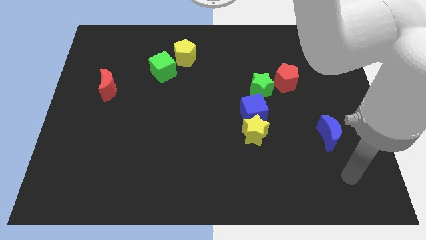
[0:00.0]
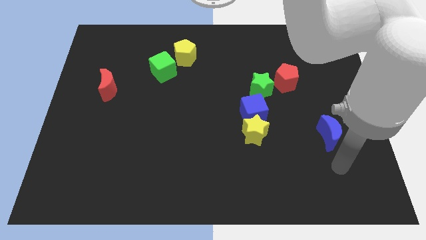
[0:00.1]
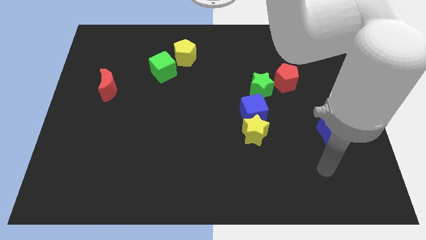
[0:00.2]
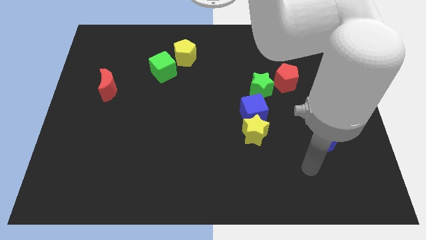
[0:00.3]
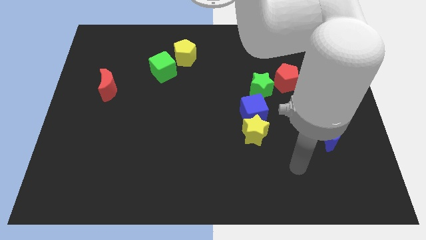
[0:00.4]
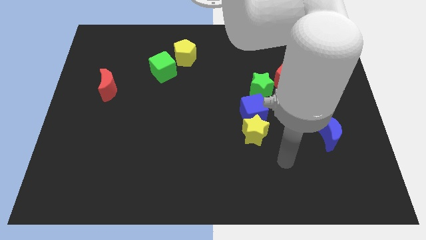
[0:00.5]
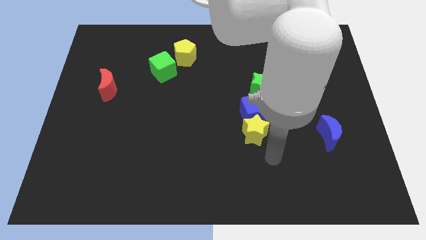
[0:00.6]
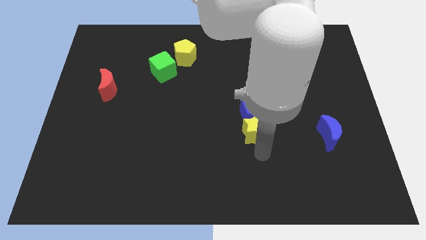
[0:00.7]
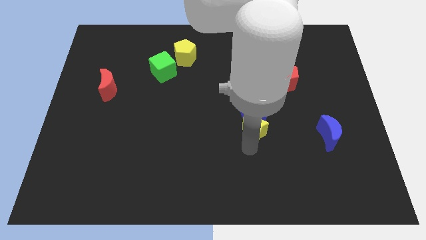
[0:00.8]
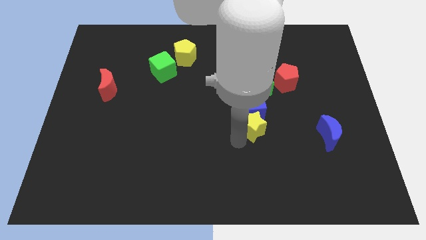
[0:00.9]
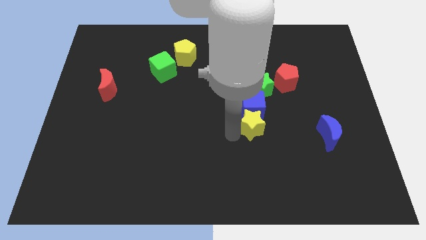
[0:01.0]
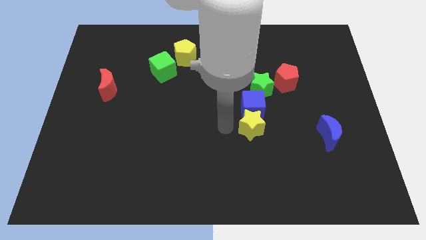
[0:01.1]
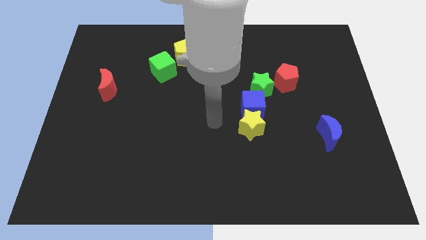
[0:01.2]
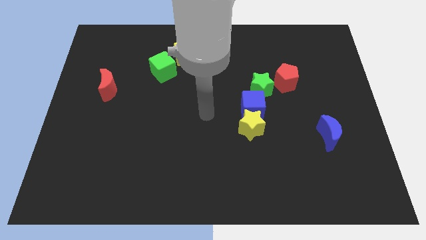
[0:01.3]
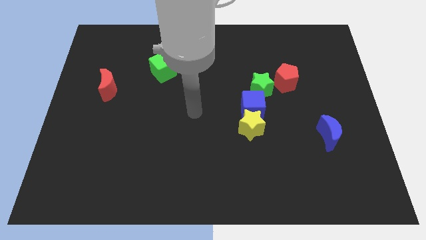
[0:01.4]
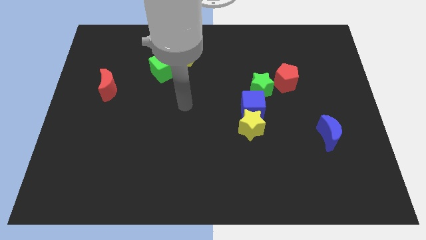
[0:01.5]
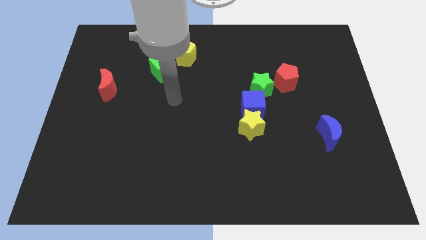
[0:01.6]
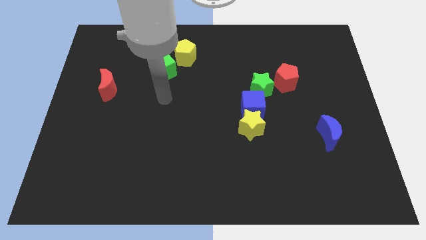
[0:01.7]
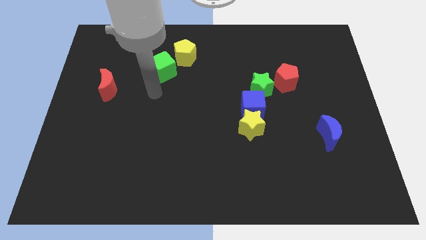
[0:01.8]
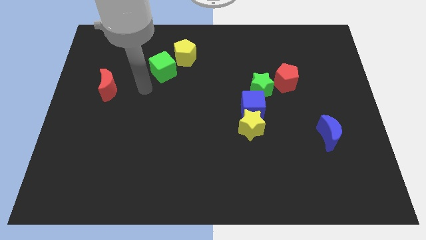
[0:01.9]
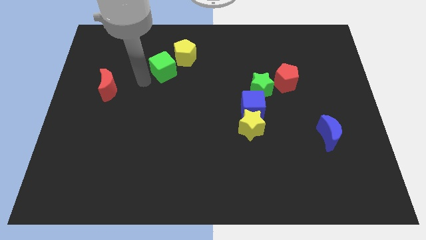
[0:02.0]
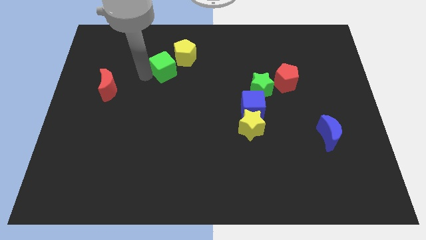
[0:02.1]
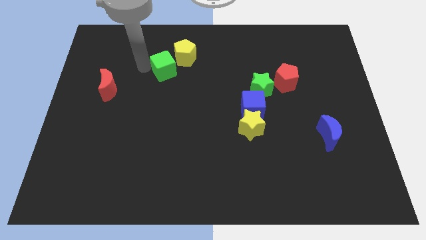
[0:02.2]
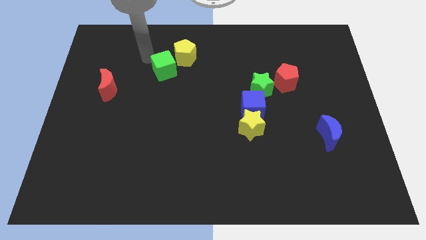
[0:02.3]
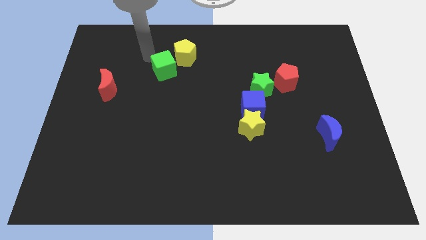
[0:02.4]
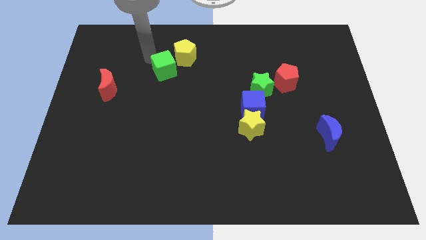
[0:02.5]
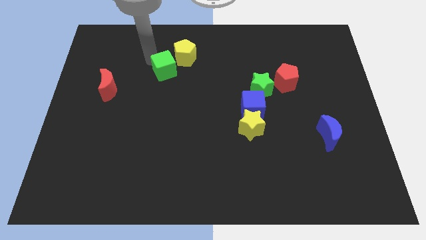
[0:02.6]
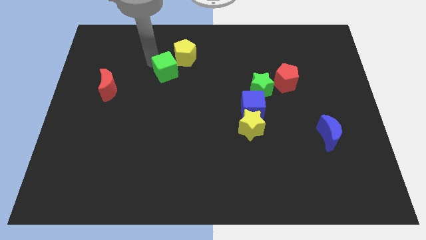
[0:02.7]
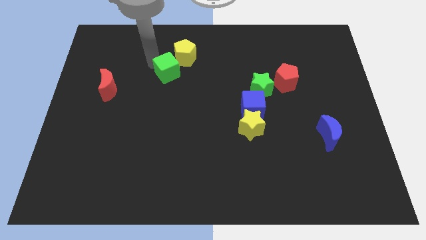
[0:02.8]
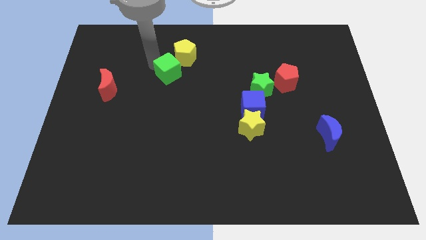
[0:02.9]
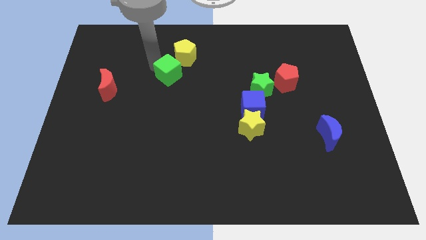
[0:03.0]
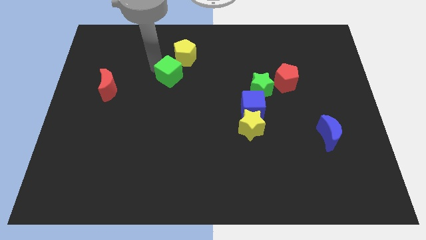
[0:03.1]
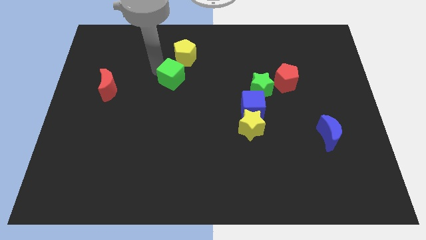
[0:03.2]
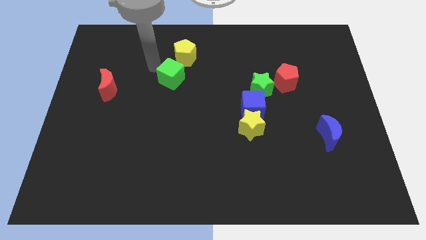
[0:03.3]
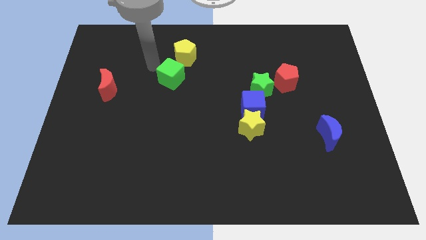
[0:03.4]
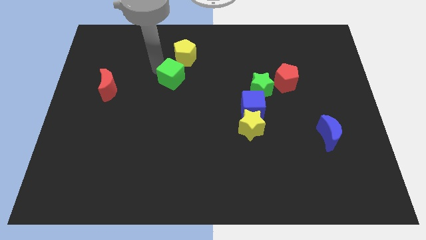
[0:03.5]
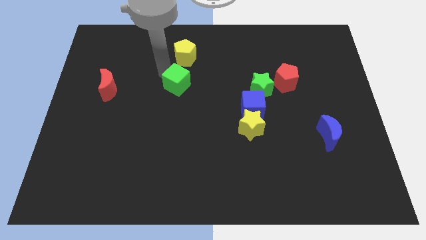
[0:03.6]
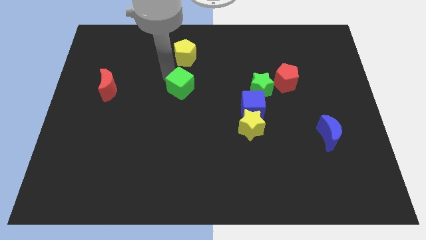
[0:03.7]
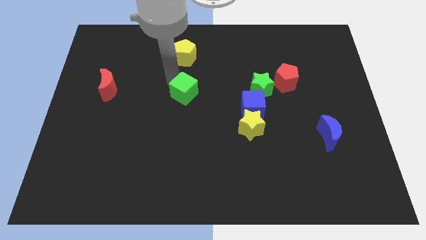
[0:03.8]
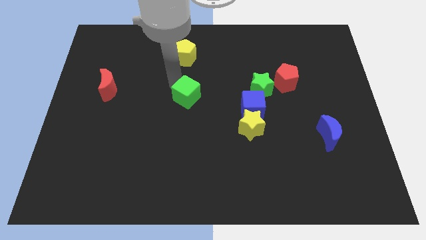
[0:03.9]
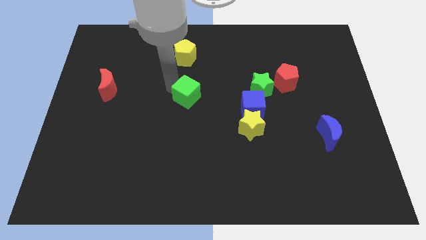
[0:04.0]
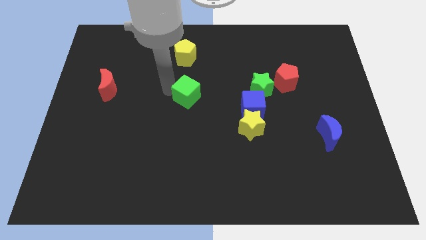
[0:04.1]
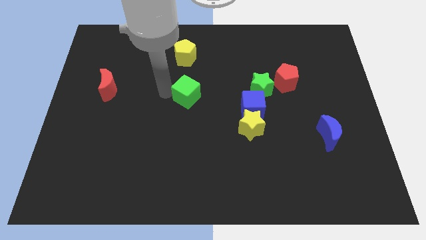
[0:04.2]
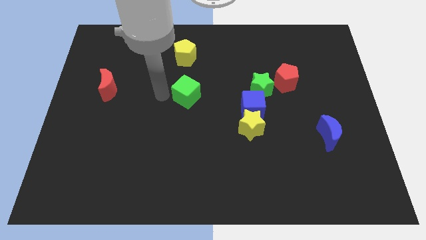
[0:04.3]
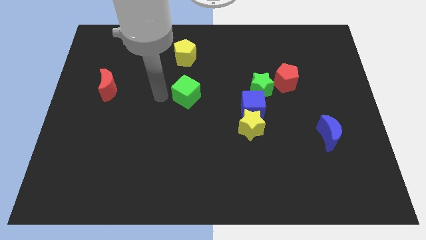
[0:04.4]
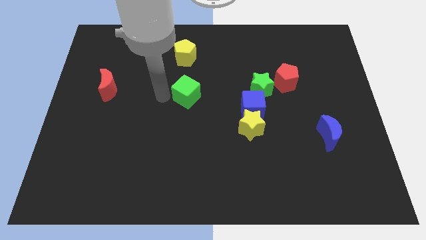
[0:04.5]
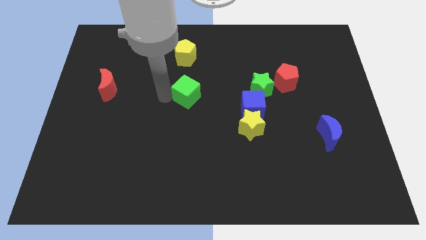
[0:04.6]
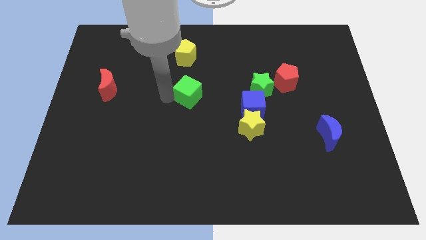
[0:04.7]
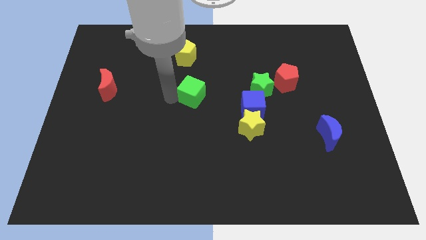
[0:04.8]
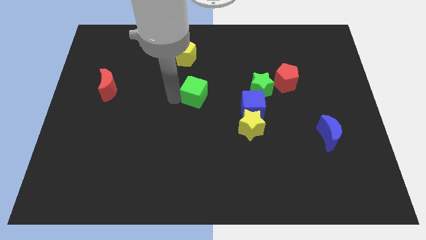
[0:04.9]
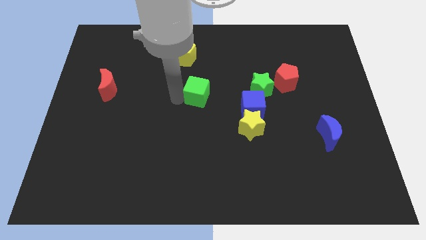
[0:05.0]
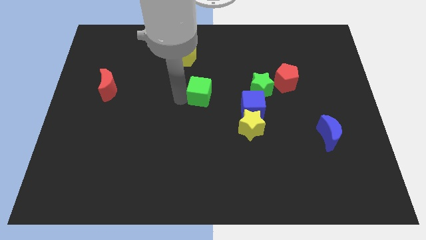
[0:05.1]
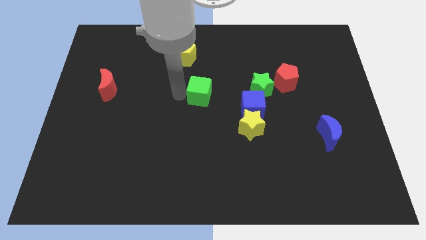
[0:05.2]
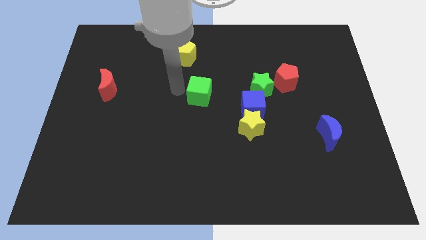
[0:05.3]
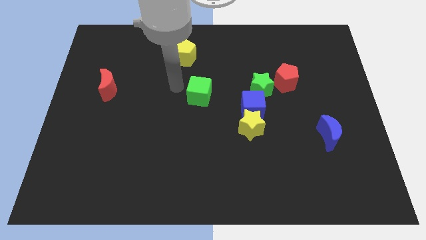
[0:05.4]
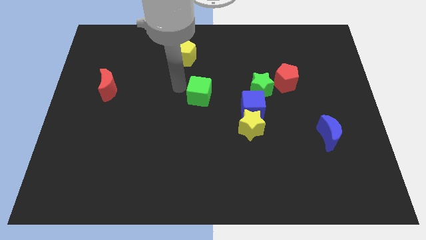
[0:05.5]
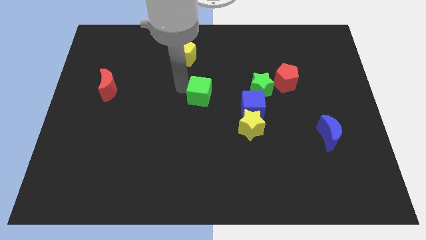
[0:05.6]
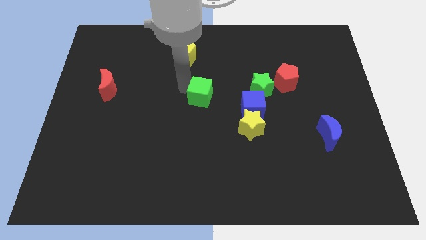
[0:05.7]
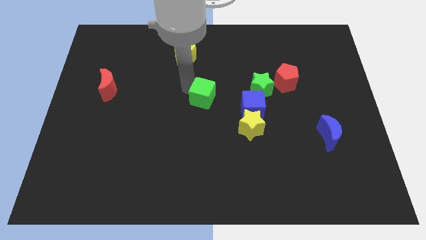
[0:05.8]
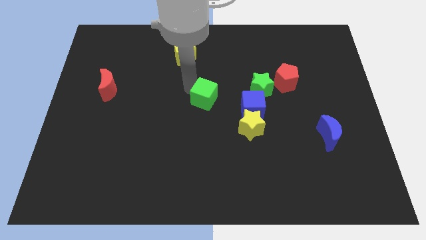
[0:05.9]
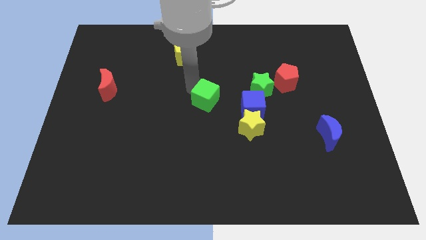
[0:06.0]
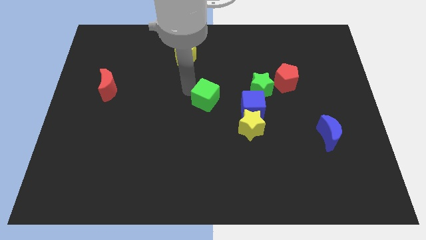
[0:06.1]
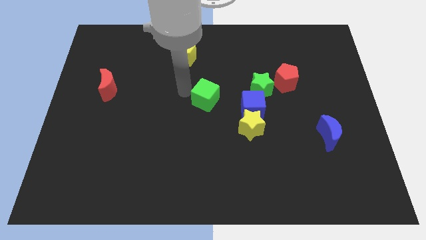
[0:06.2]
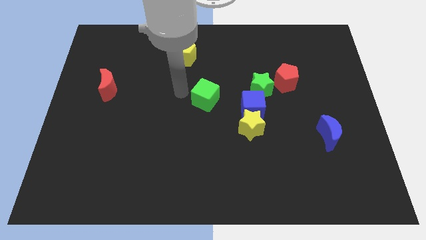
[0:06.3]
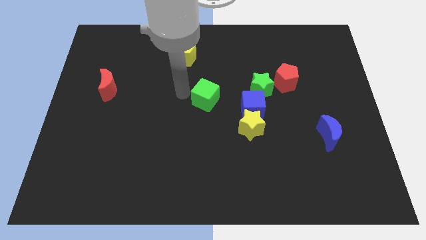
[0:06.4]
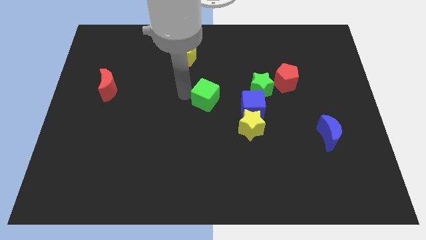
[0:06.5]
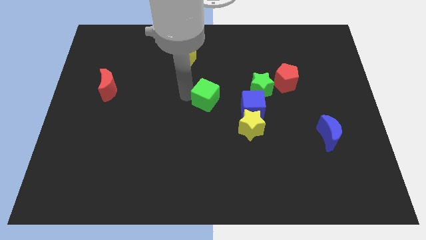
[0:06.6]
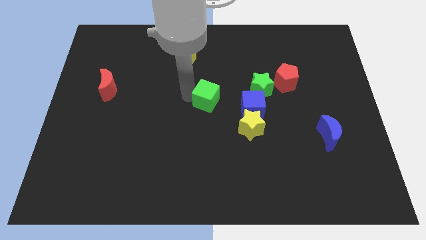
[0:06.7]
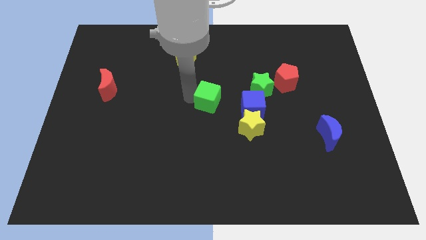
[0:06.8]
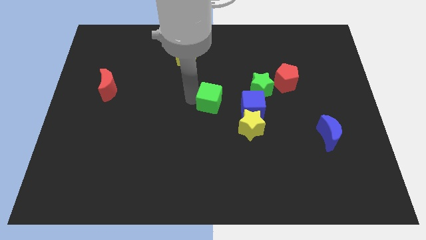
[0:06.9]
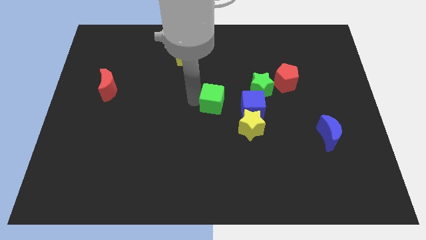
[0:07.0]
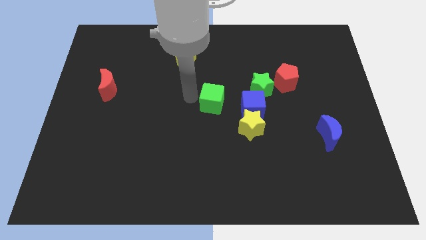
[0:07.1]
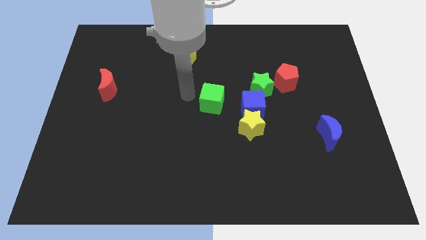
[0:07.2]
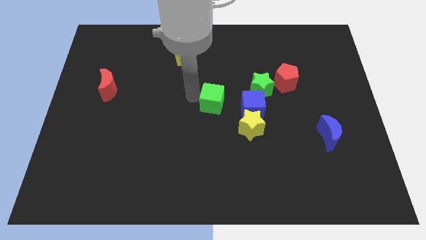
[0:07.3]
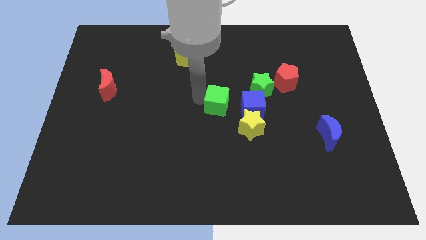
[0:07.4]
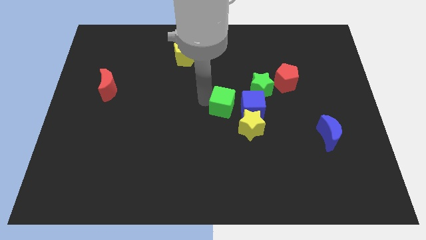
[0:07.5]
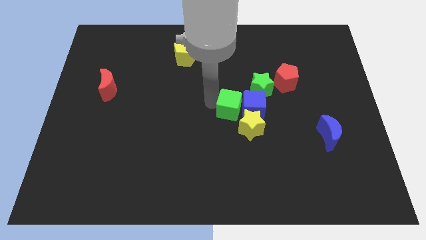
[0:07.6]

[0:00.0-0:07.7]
slide the green cube to the blue cube
